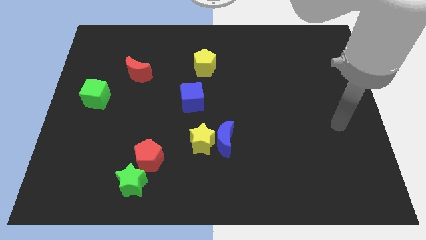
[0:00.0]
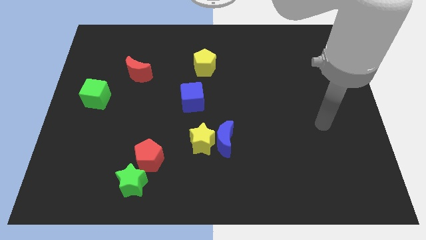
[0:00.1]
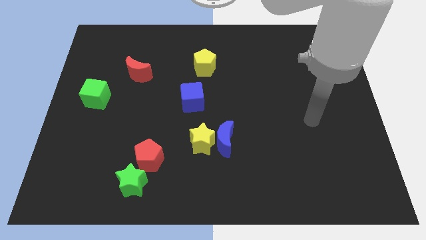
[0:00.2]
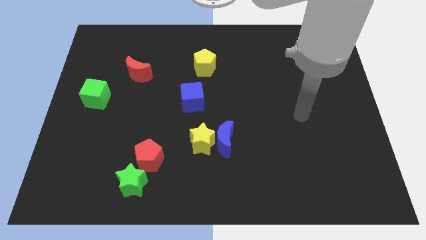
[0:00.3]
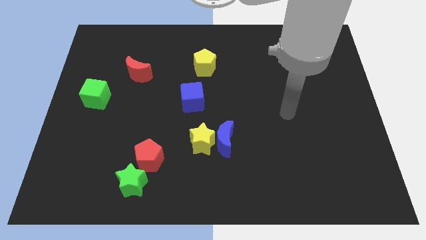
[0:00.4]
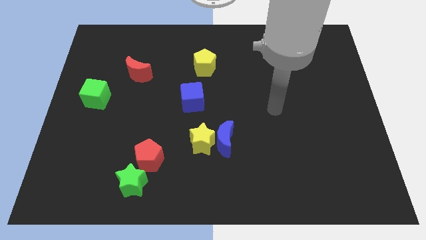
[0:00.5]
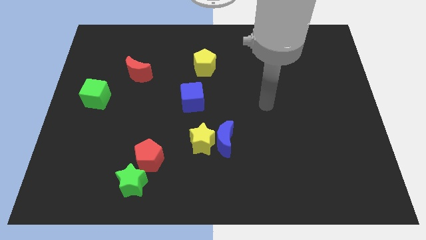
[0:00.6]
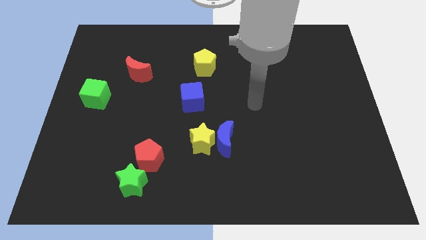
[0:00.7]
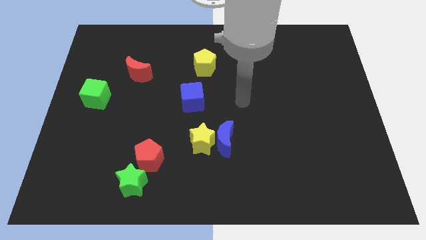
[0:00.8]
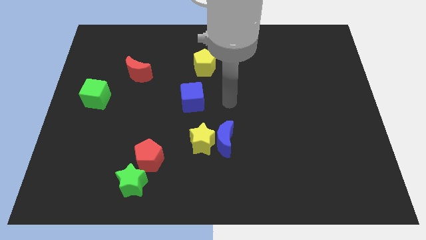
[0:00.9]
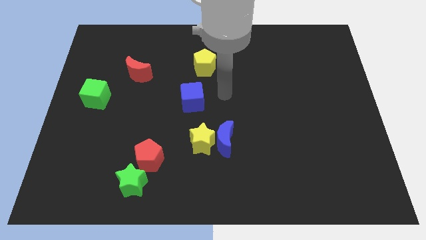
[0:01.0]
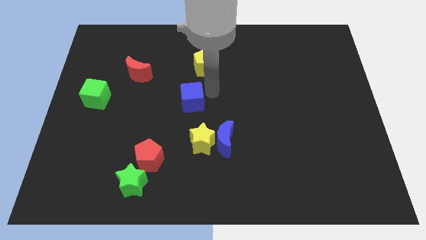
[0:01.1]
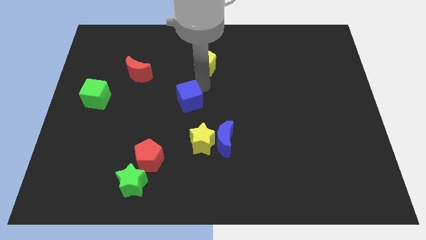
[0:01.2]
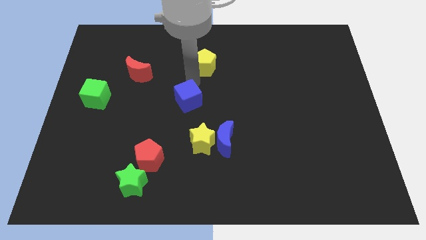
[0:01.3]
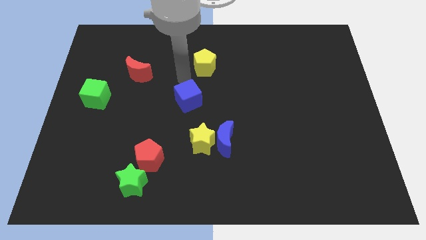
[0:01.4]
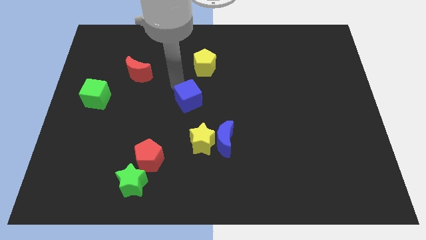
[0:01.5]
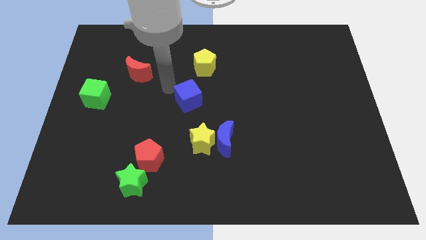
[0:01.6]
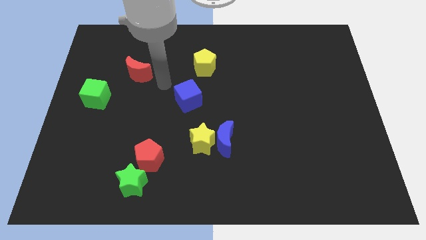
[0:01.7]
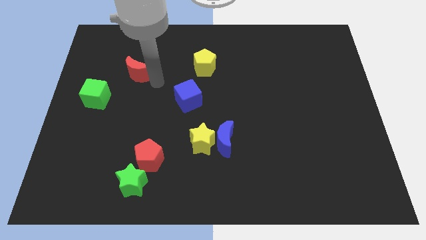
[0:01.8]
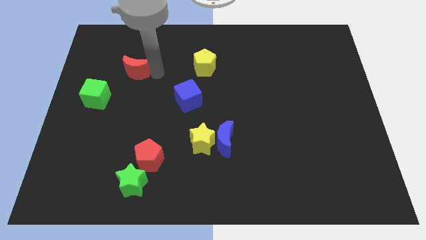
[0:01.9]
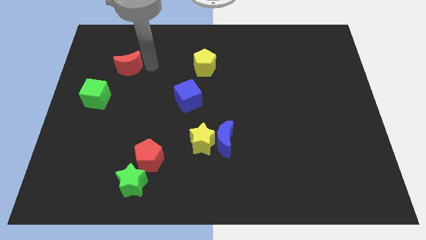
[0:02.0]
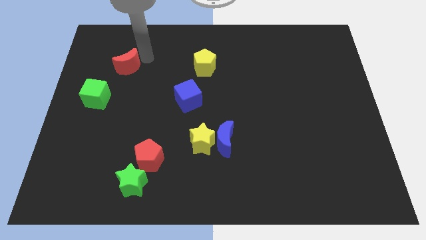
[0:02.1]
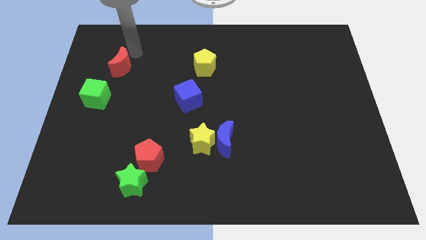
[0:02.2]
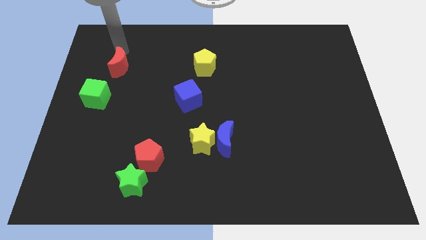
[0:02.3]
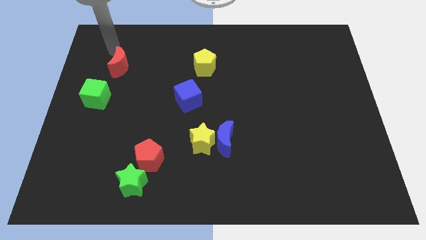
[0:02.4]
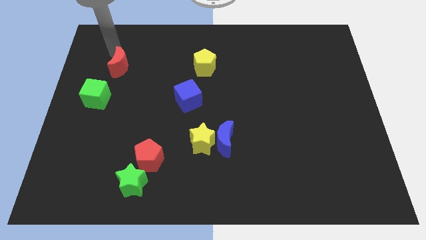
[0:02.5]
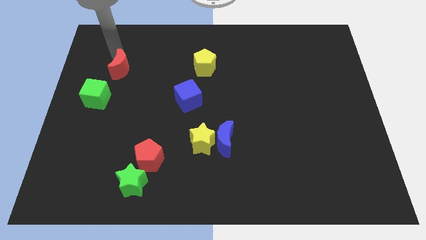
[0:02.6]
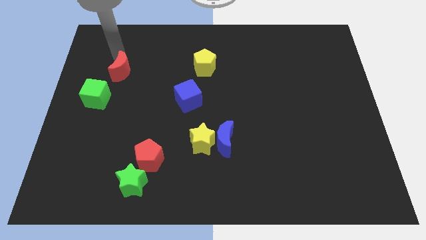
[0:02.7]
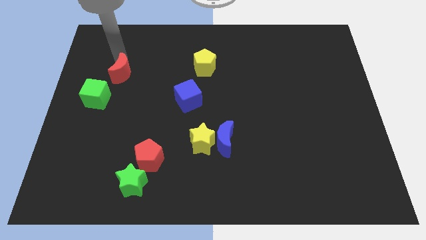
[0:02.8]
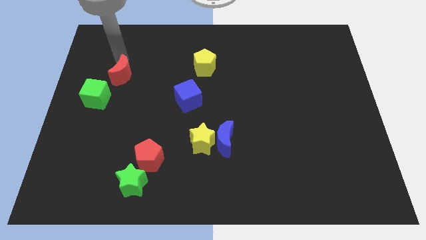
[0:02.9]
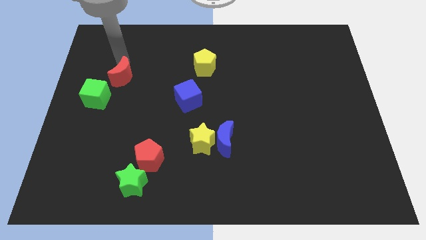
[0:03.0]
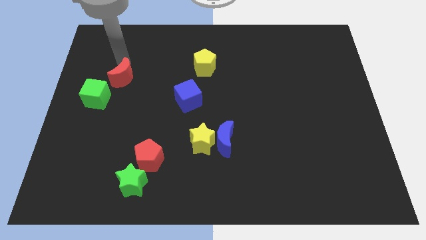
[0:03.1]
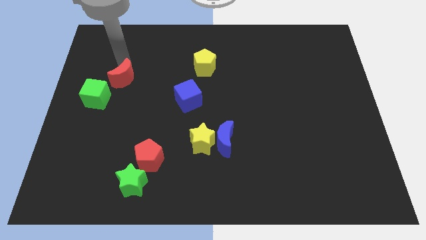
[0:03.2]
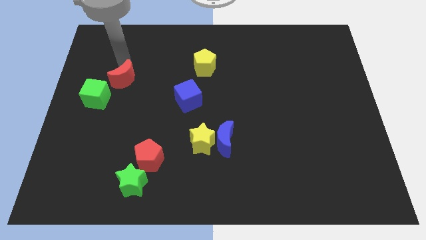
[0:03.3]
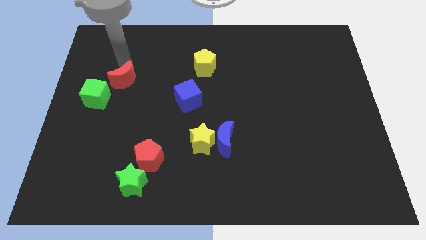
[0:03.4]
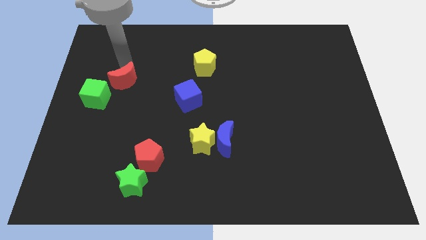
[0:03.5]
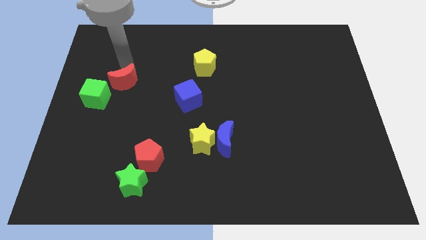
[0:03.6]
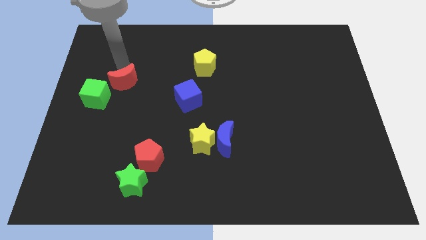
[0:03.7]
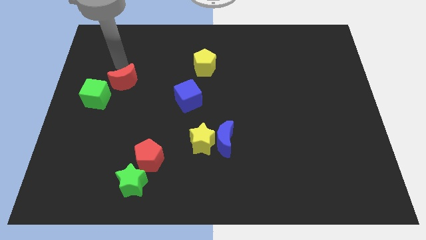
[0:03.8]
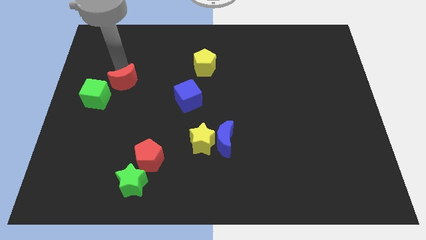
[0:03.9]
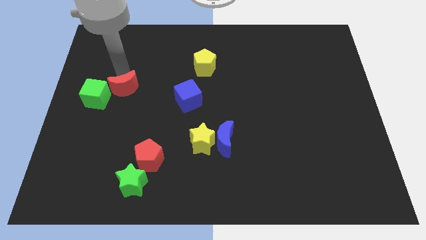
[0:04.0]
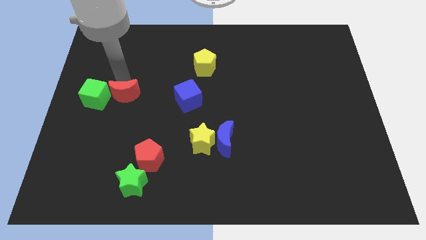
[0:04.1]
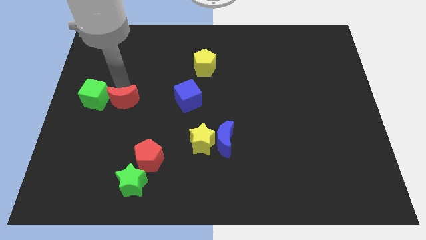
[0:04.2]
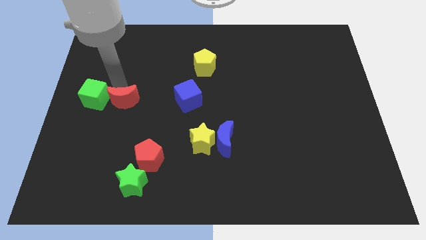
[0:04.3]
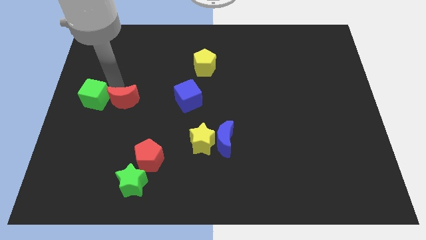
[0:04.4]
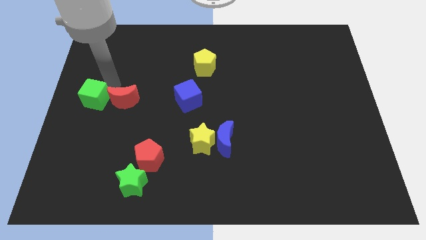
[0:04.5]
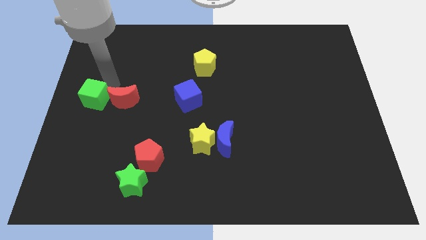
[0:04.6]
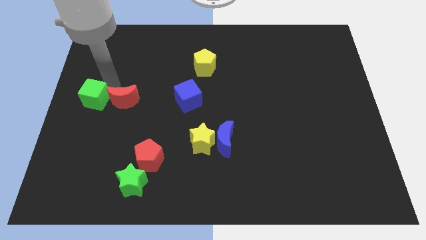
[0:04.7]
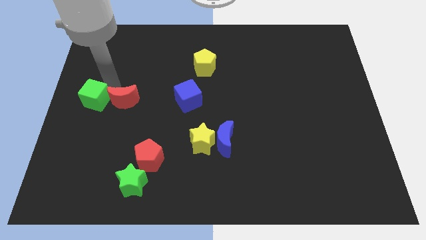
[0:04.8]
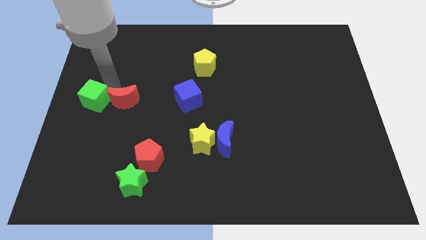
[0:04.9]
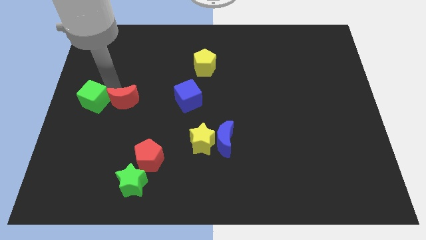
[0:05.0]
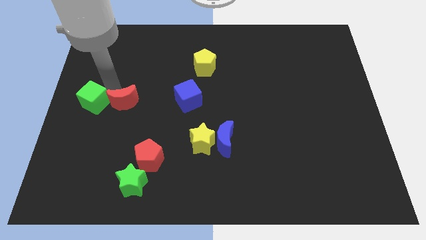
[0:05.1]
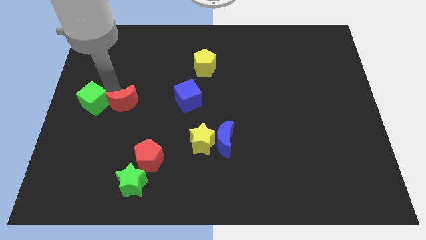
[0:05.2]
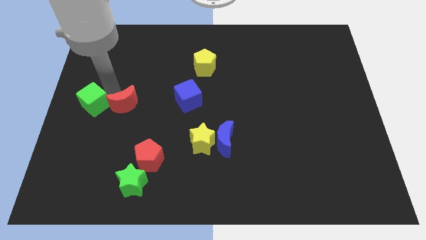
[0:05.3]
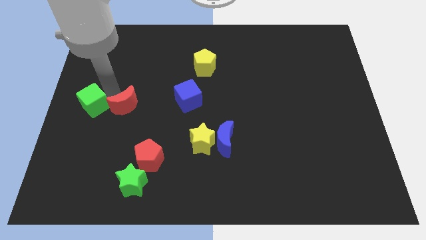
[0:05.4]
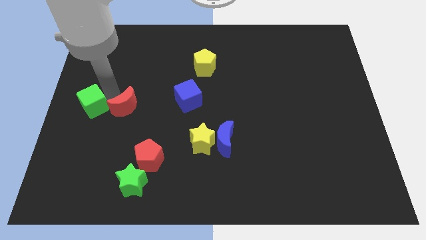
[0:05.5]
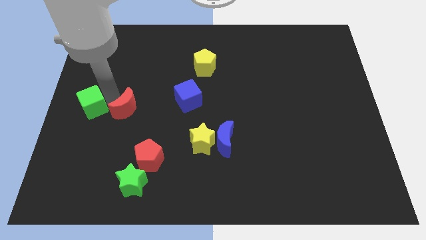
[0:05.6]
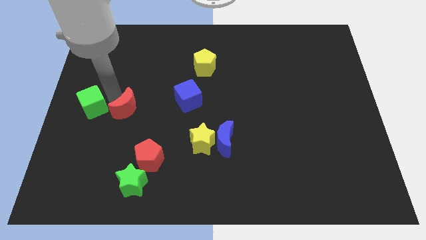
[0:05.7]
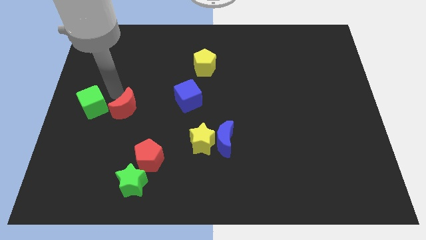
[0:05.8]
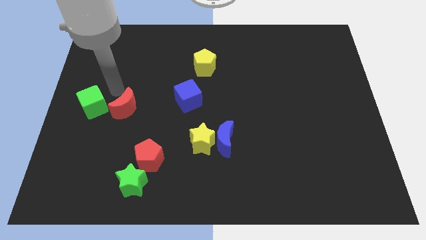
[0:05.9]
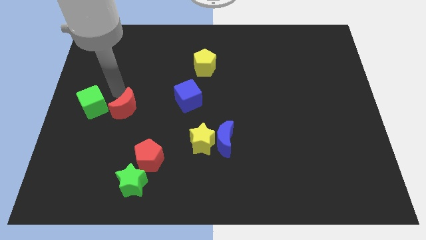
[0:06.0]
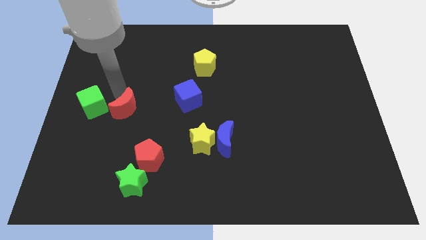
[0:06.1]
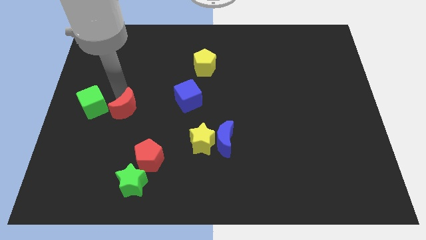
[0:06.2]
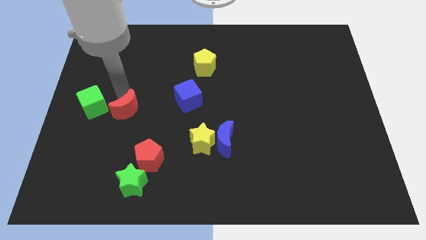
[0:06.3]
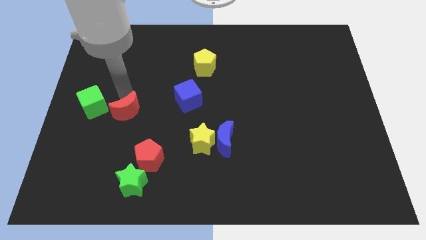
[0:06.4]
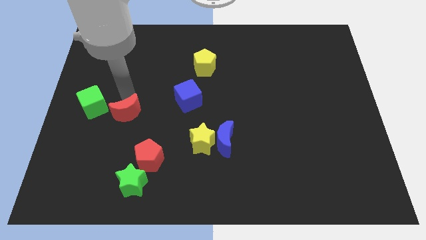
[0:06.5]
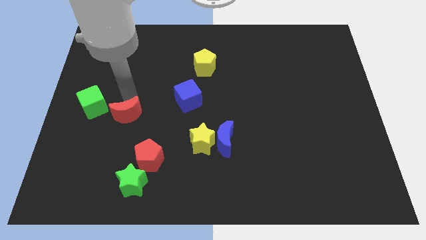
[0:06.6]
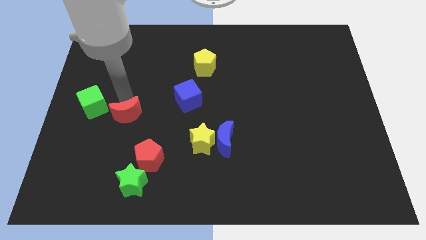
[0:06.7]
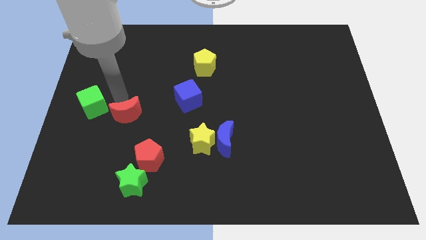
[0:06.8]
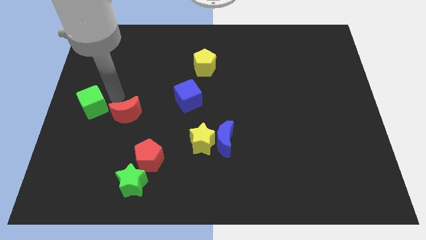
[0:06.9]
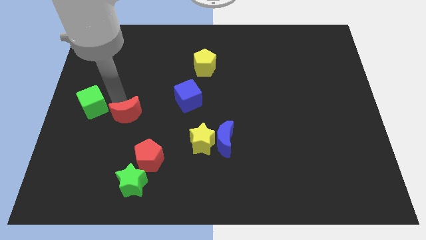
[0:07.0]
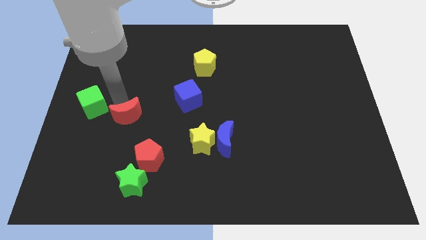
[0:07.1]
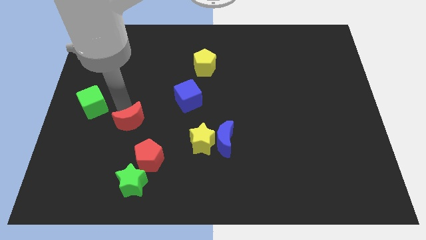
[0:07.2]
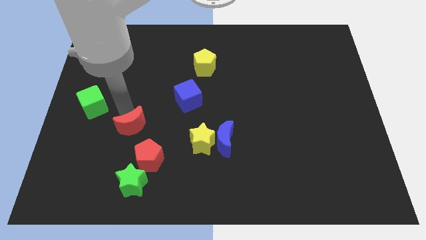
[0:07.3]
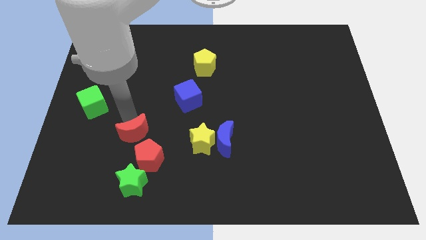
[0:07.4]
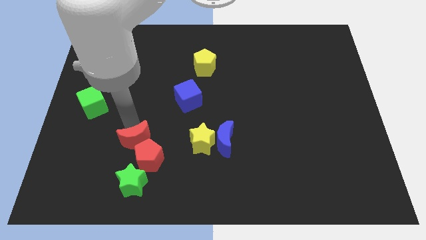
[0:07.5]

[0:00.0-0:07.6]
put the red moon next to the red pentagon

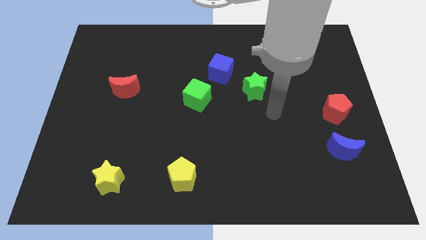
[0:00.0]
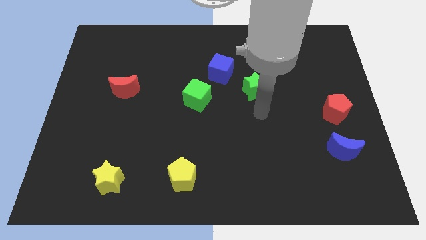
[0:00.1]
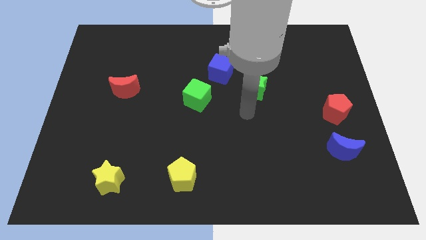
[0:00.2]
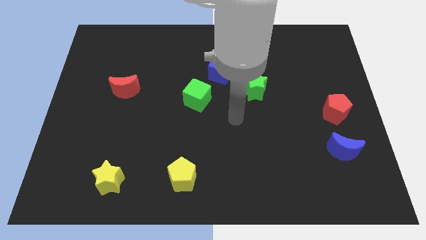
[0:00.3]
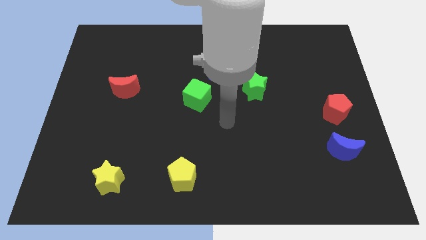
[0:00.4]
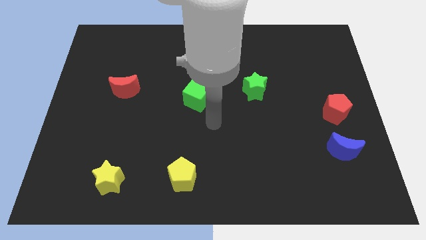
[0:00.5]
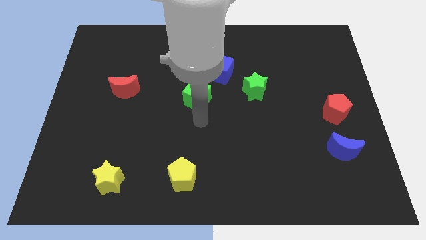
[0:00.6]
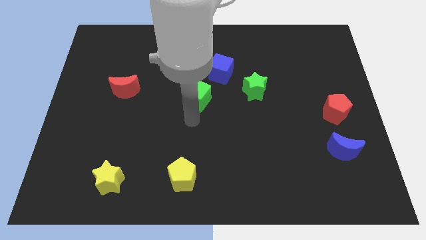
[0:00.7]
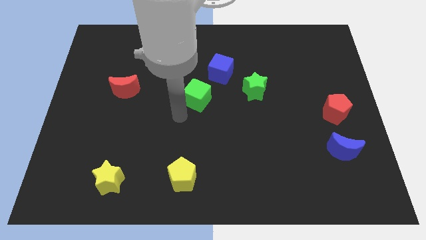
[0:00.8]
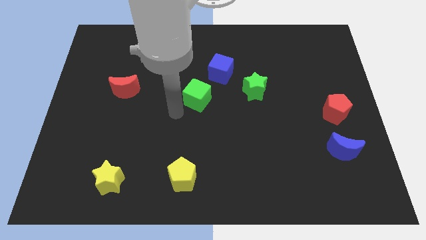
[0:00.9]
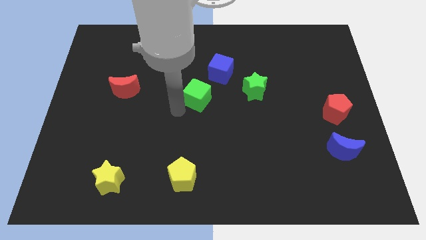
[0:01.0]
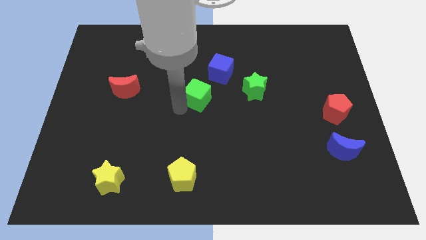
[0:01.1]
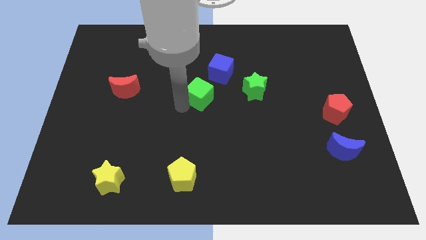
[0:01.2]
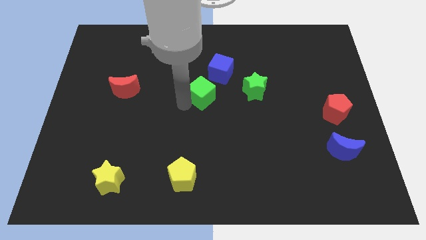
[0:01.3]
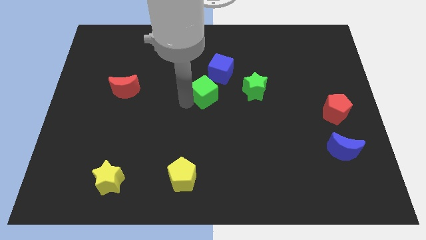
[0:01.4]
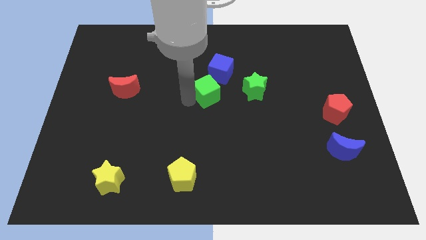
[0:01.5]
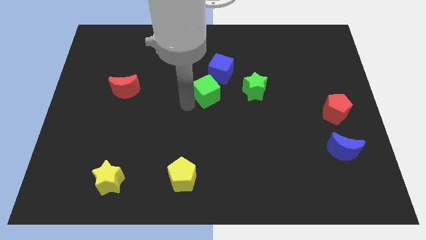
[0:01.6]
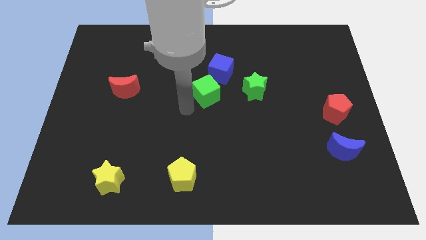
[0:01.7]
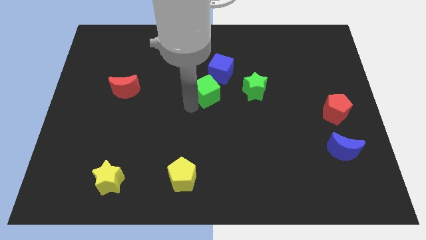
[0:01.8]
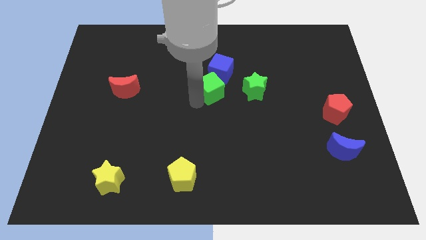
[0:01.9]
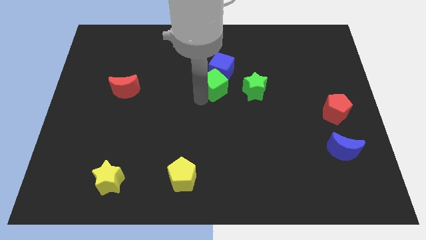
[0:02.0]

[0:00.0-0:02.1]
push the green cube next to the blue cube
